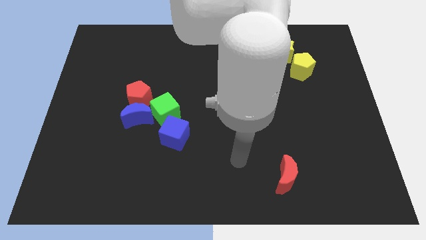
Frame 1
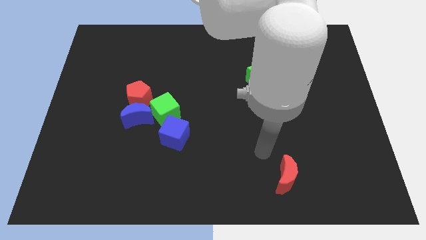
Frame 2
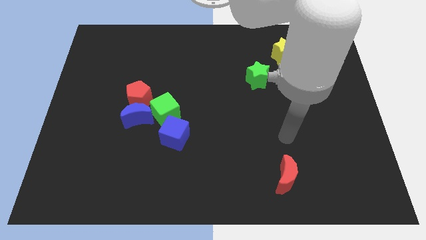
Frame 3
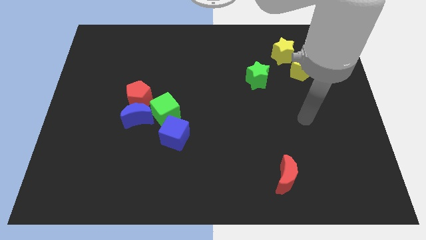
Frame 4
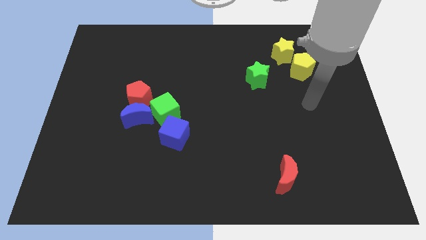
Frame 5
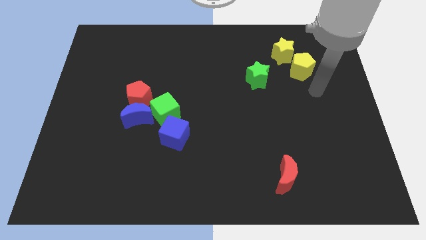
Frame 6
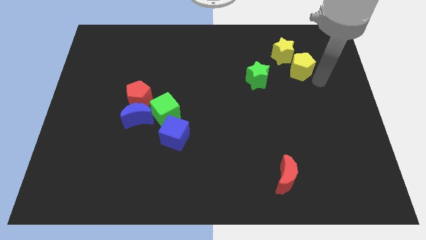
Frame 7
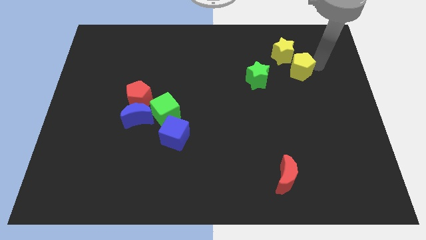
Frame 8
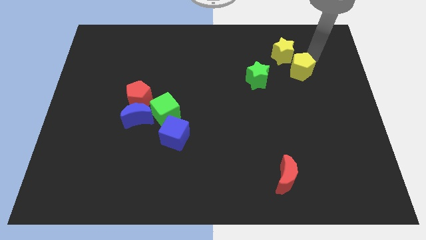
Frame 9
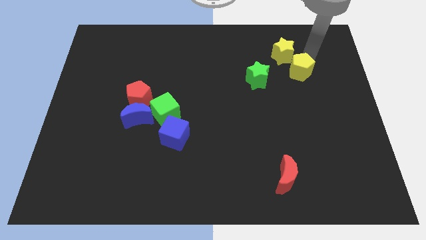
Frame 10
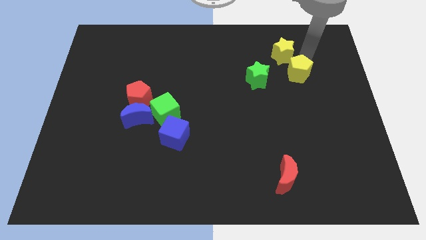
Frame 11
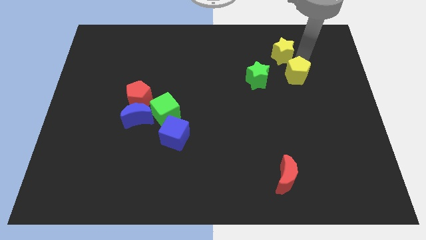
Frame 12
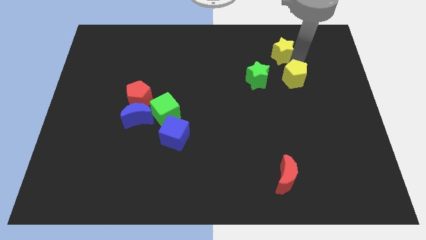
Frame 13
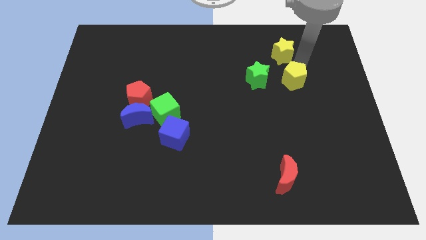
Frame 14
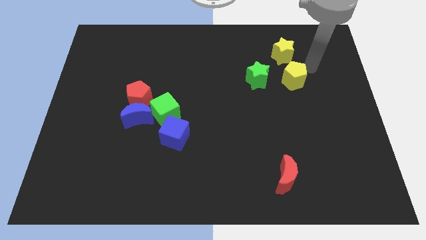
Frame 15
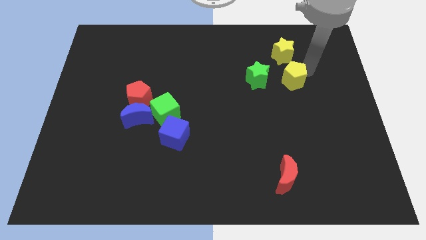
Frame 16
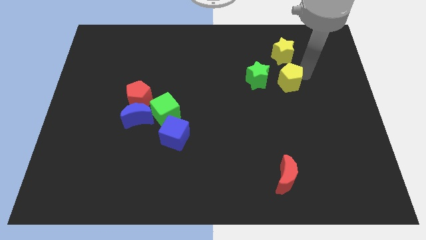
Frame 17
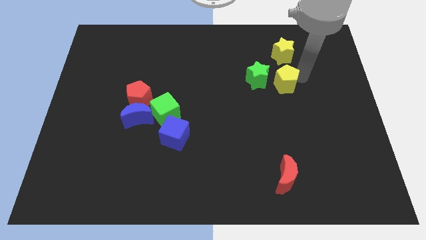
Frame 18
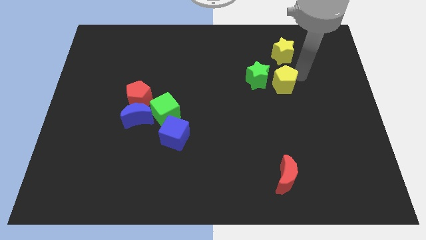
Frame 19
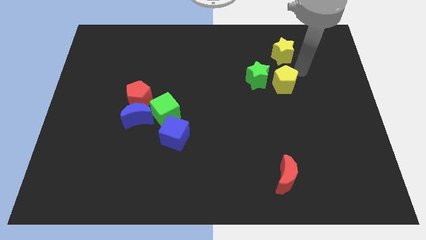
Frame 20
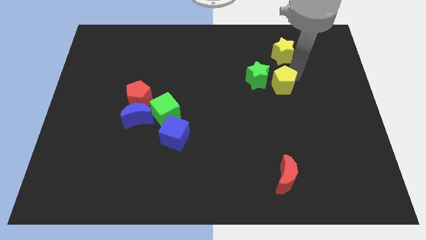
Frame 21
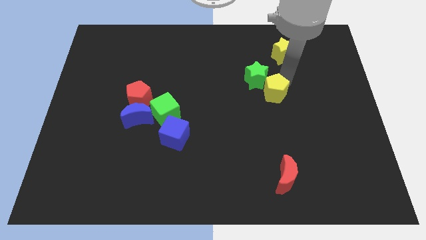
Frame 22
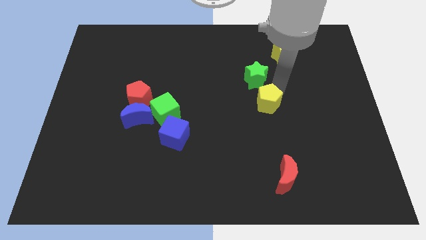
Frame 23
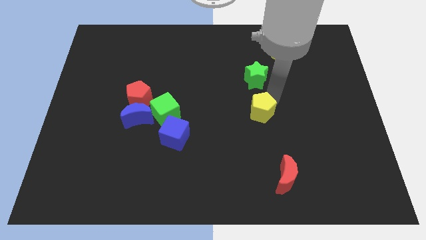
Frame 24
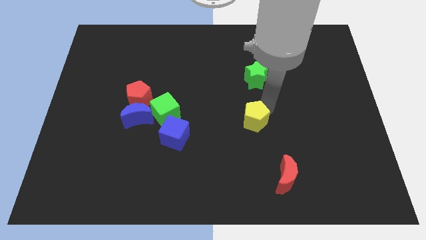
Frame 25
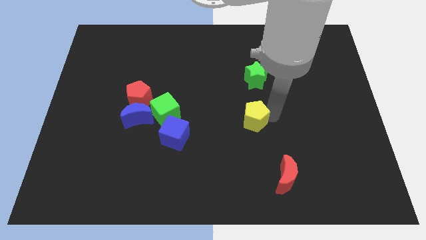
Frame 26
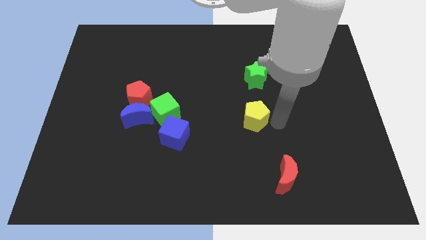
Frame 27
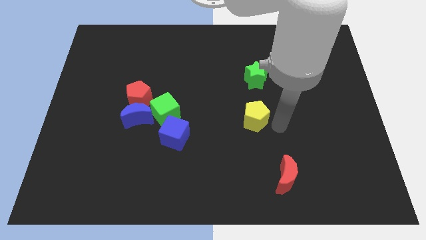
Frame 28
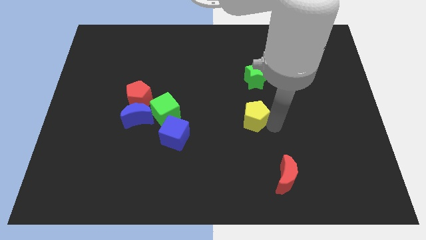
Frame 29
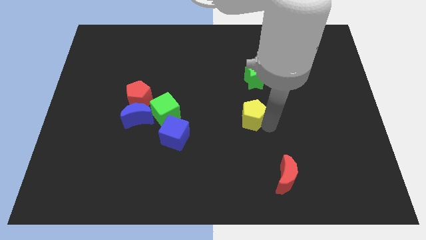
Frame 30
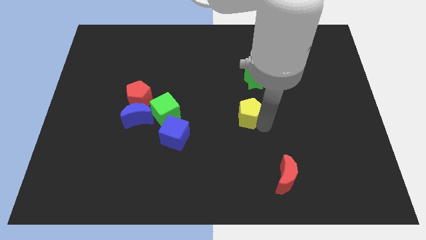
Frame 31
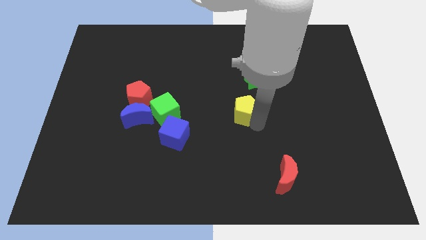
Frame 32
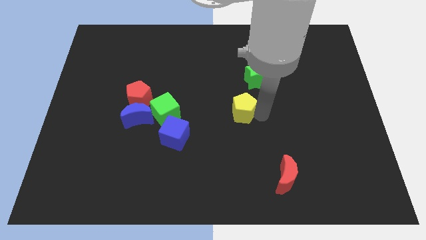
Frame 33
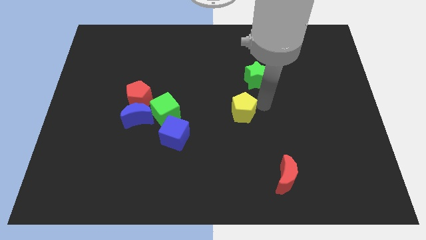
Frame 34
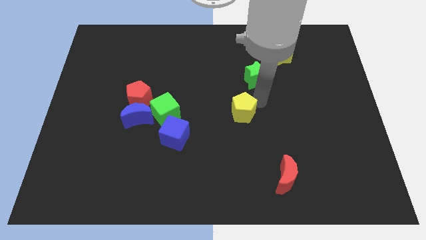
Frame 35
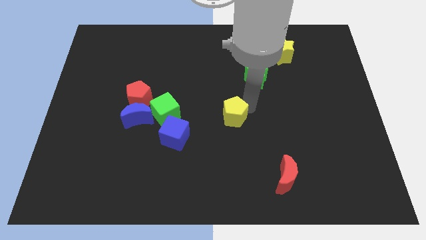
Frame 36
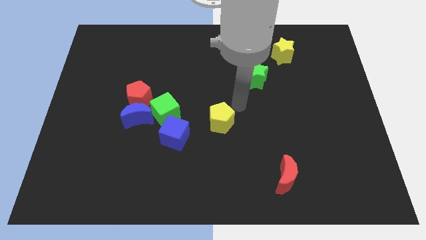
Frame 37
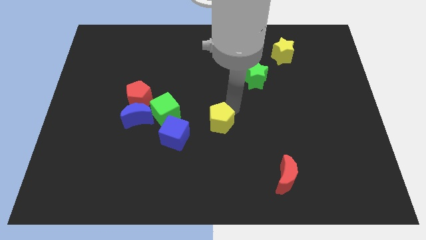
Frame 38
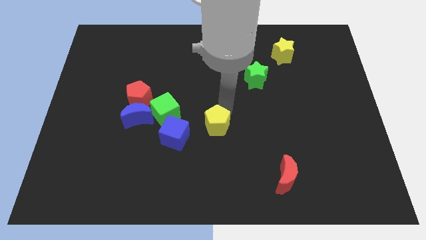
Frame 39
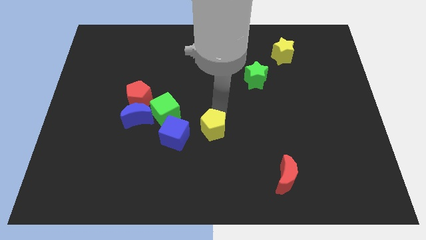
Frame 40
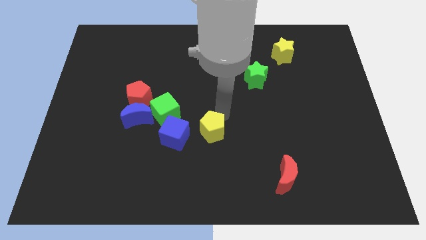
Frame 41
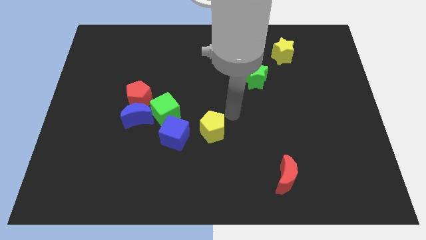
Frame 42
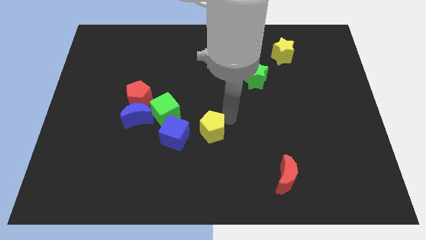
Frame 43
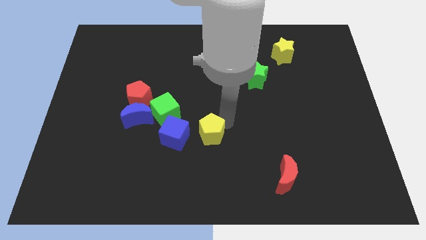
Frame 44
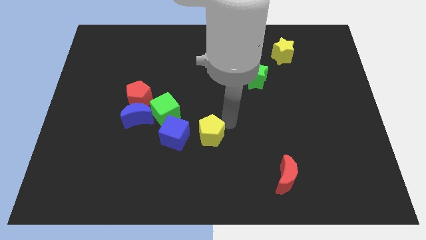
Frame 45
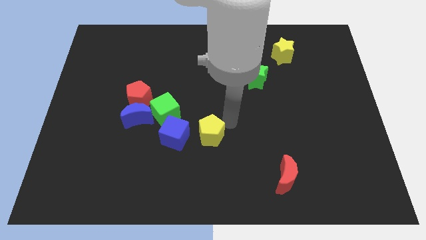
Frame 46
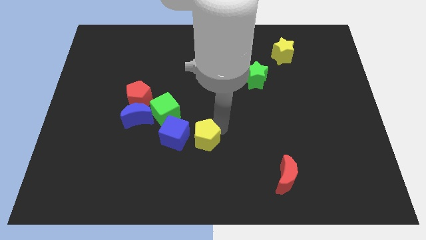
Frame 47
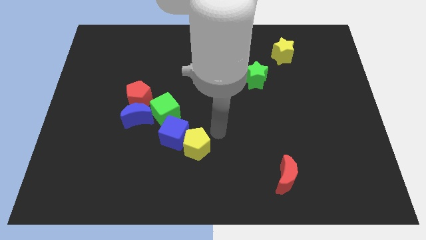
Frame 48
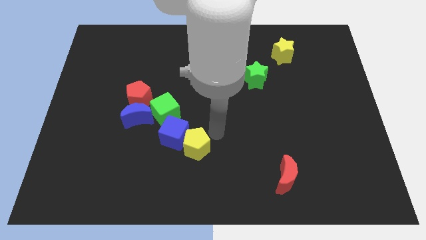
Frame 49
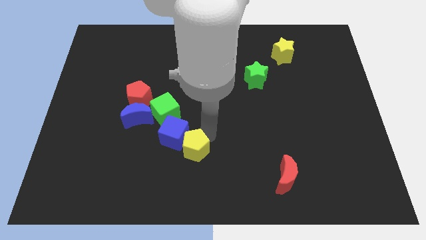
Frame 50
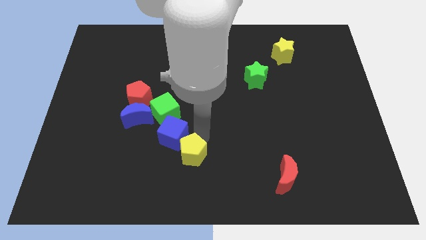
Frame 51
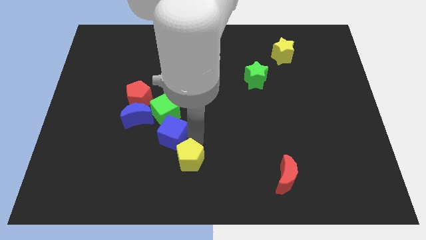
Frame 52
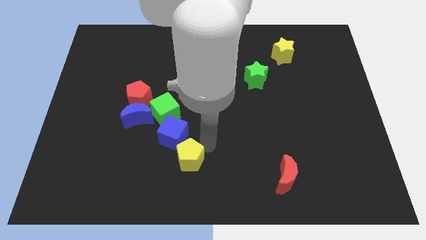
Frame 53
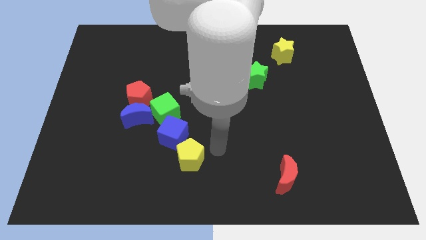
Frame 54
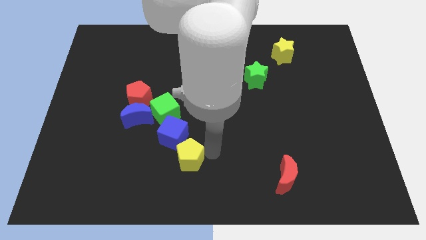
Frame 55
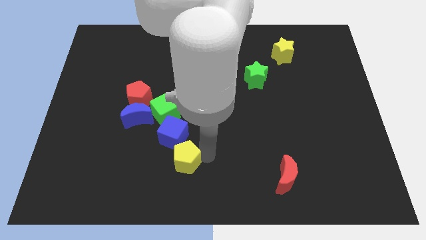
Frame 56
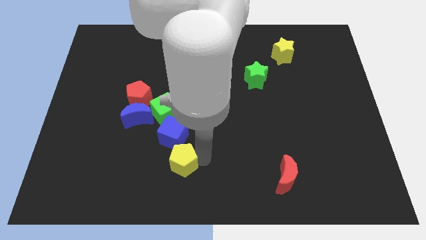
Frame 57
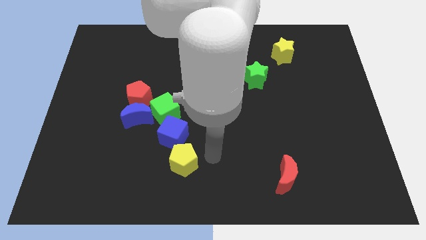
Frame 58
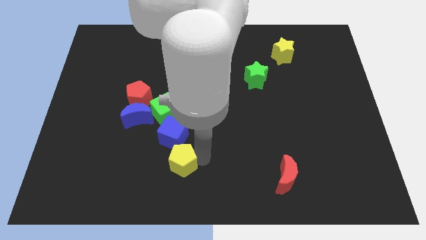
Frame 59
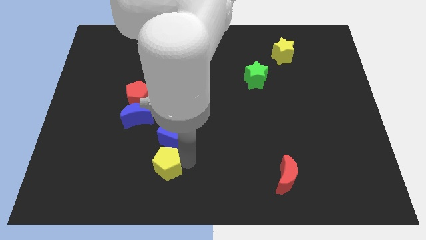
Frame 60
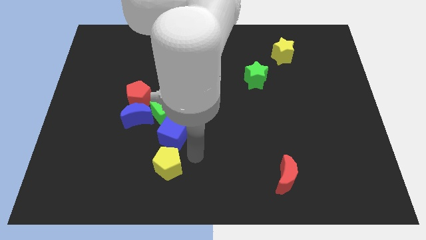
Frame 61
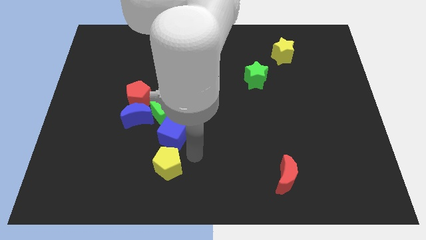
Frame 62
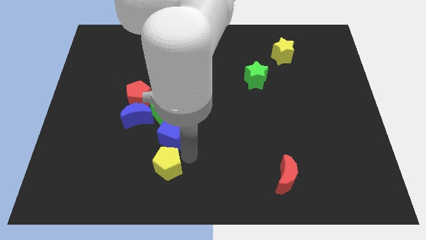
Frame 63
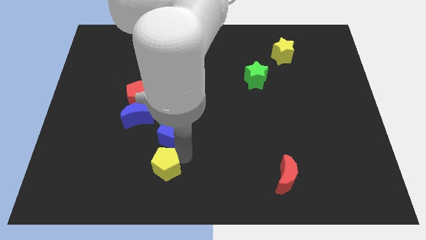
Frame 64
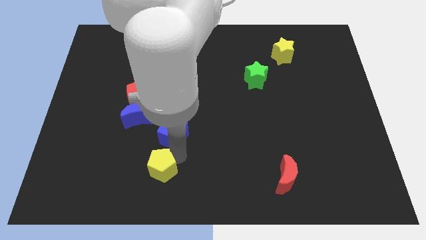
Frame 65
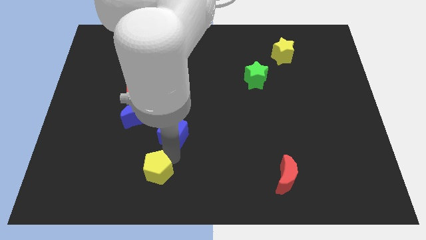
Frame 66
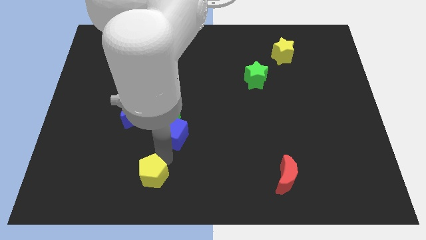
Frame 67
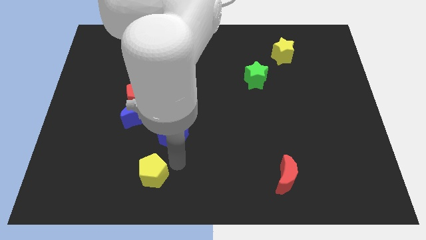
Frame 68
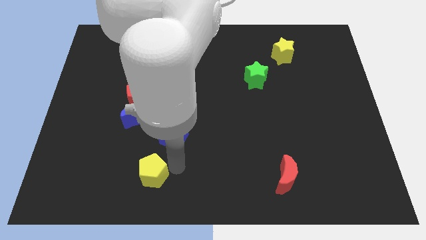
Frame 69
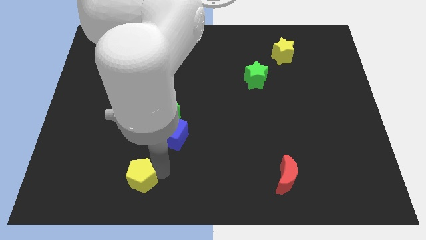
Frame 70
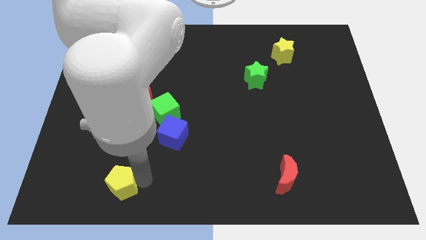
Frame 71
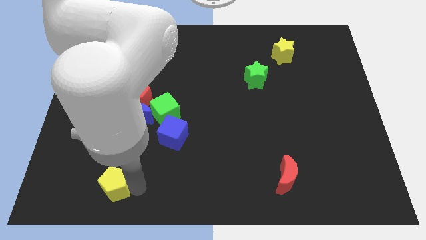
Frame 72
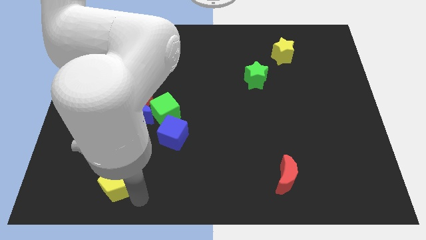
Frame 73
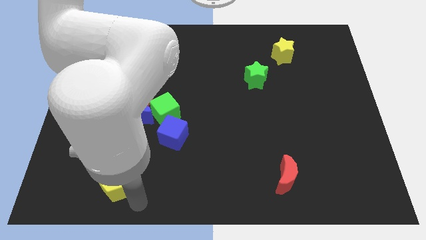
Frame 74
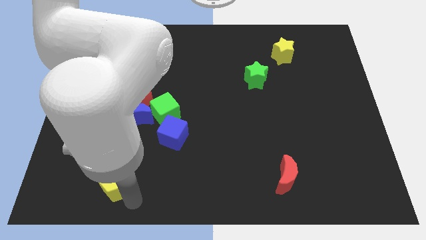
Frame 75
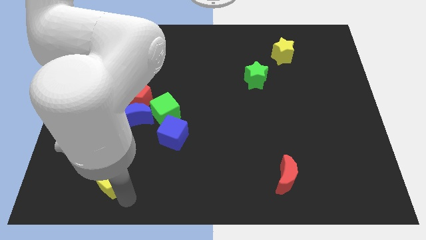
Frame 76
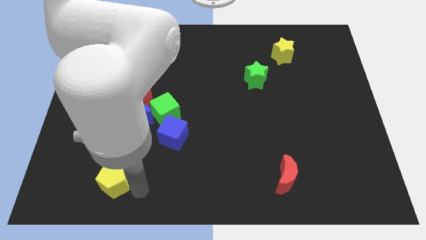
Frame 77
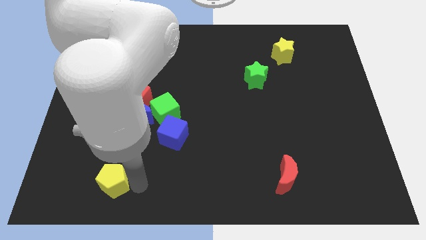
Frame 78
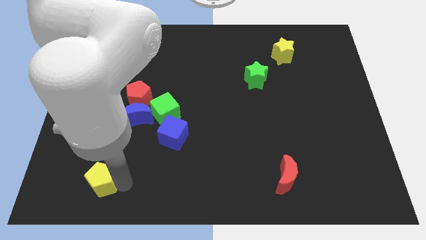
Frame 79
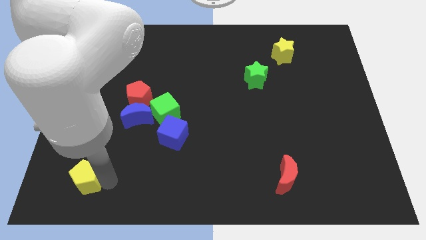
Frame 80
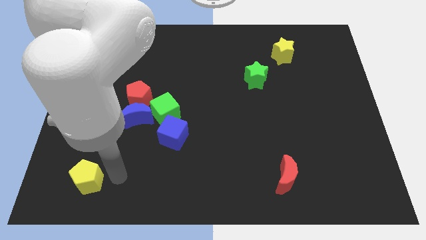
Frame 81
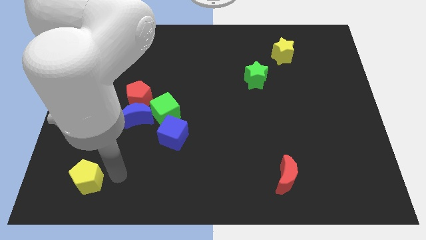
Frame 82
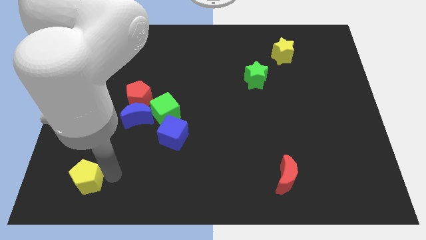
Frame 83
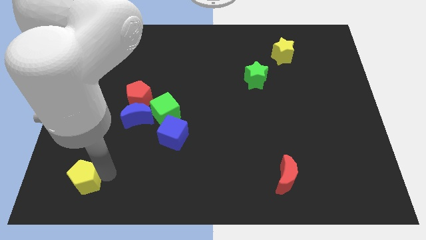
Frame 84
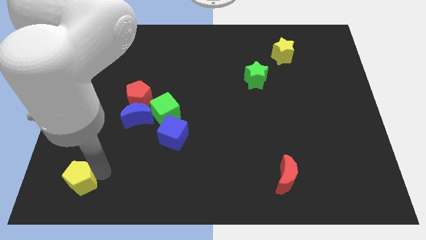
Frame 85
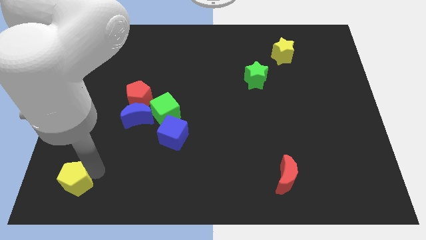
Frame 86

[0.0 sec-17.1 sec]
move the yellow pentagon to the lower left corner
